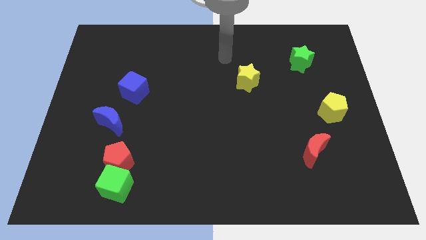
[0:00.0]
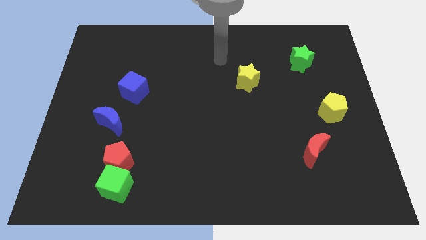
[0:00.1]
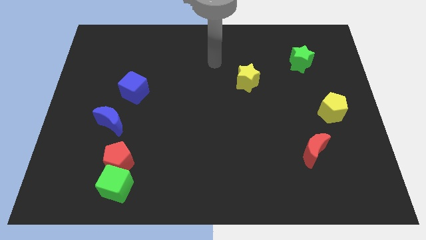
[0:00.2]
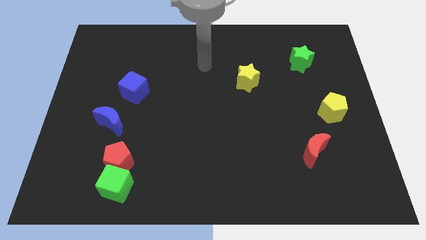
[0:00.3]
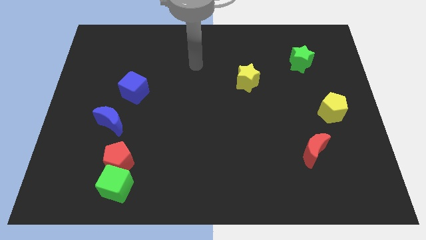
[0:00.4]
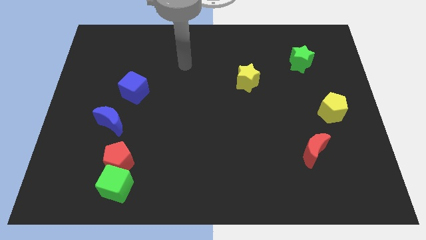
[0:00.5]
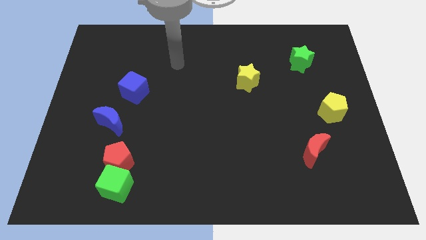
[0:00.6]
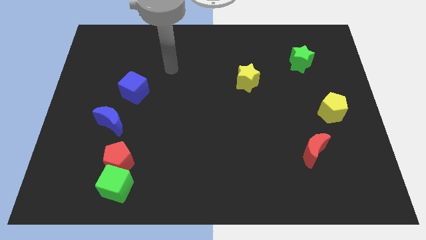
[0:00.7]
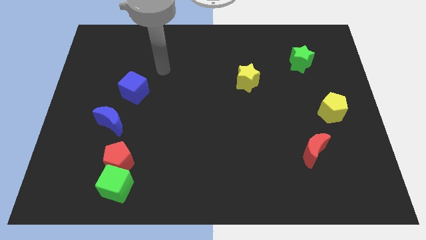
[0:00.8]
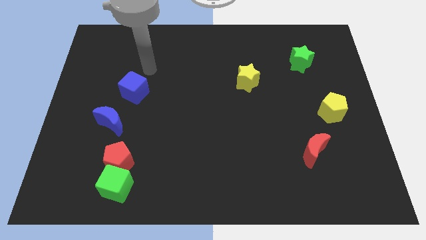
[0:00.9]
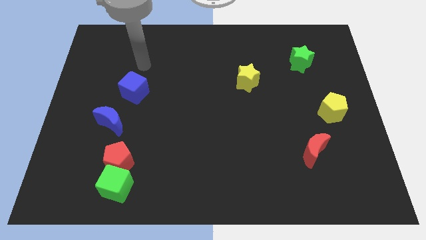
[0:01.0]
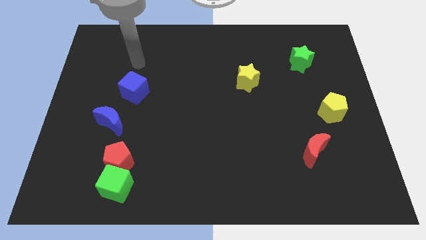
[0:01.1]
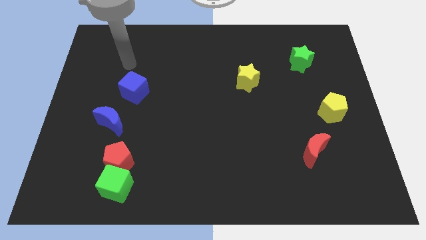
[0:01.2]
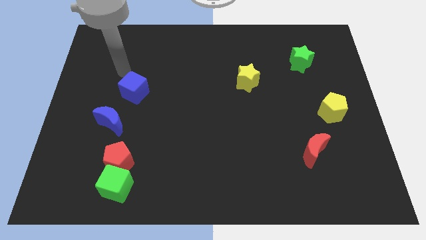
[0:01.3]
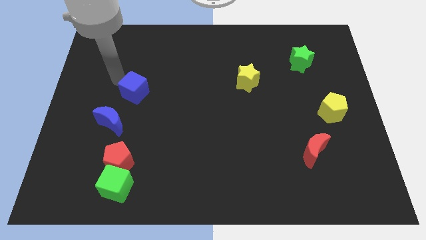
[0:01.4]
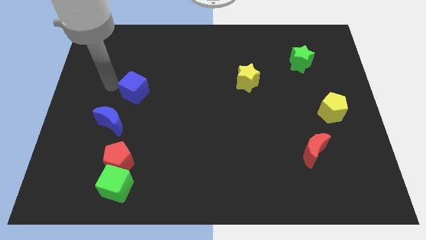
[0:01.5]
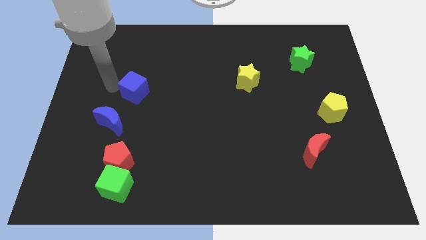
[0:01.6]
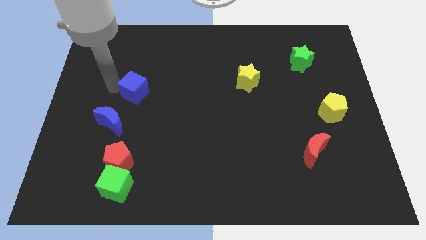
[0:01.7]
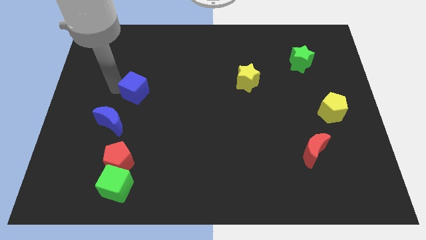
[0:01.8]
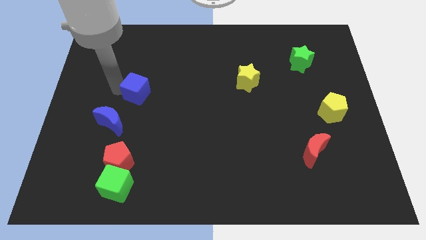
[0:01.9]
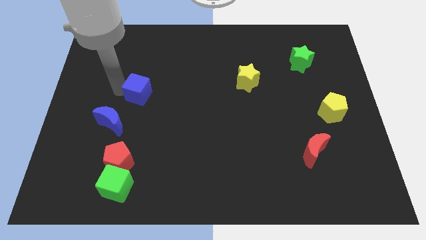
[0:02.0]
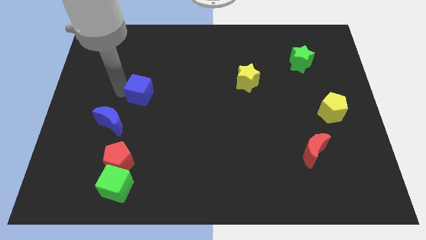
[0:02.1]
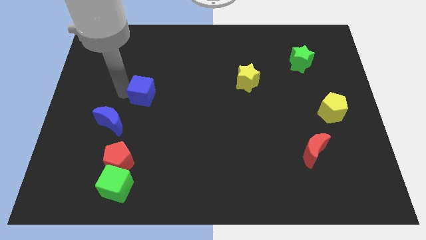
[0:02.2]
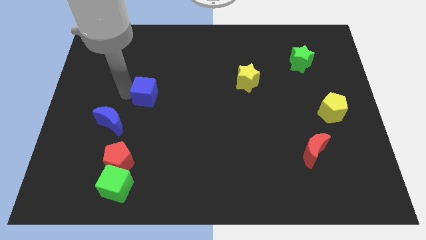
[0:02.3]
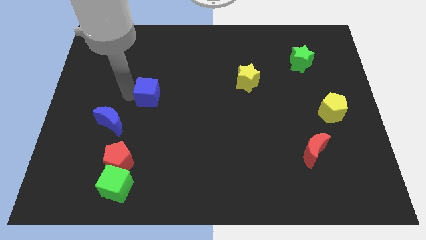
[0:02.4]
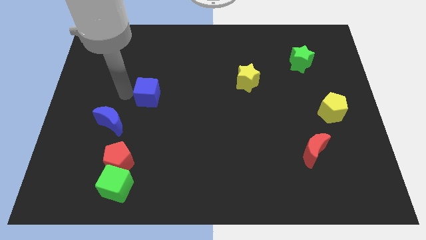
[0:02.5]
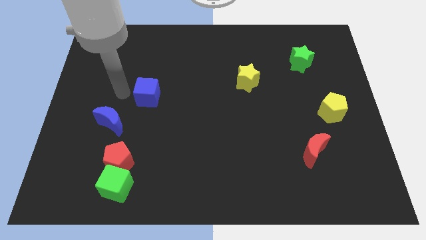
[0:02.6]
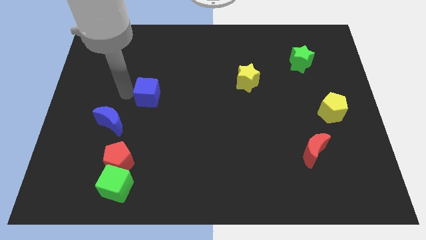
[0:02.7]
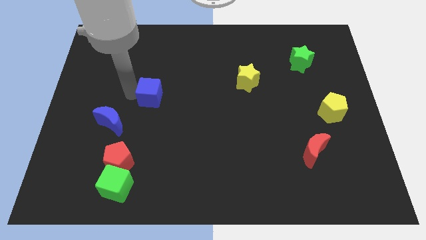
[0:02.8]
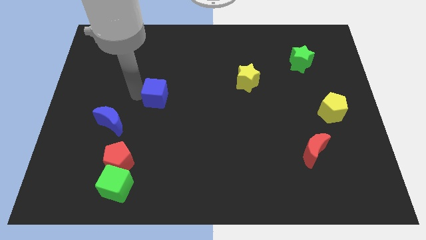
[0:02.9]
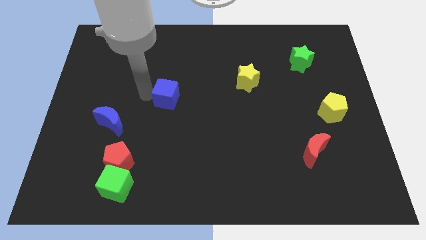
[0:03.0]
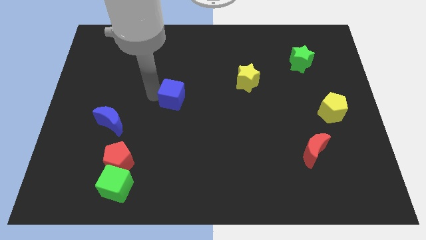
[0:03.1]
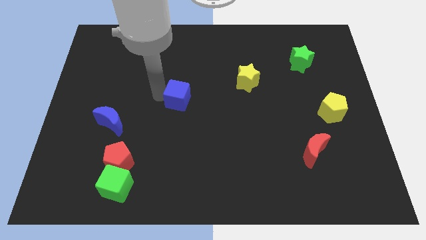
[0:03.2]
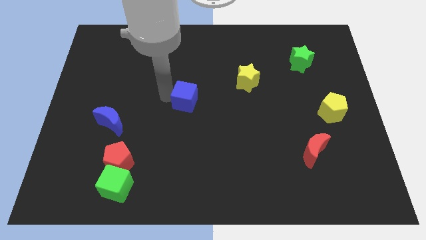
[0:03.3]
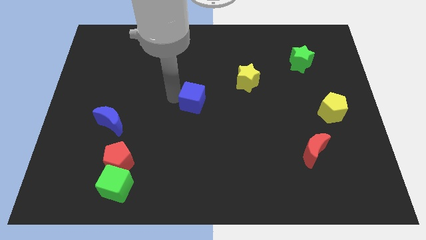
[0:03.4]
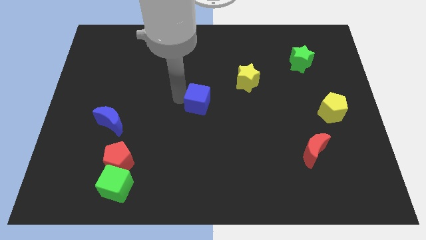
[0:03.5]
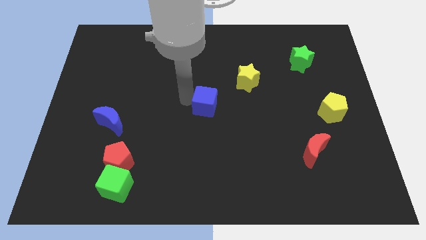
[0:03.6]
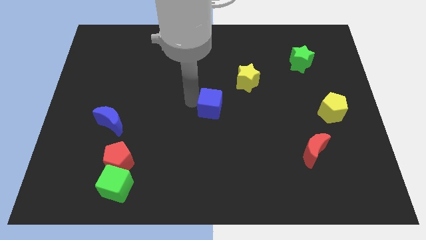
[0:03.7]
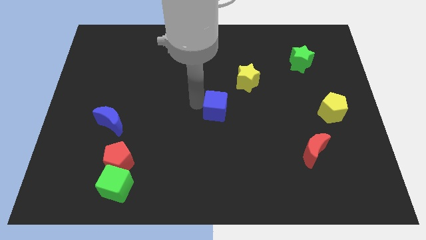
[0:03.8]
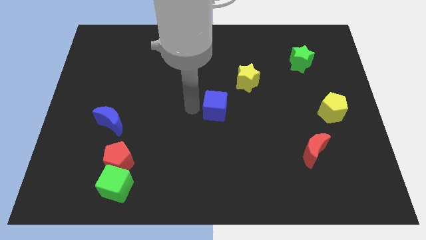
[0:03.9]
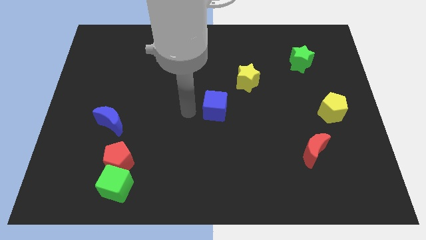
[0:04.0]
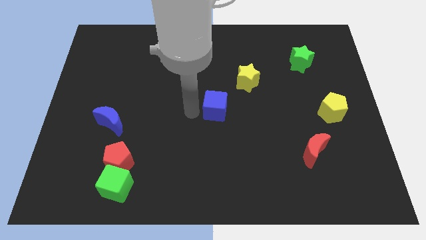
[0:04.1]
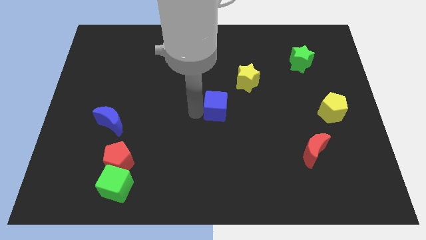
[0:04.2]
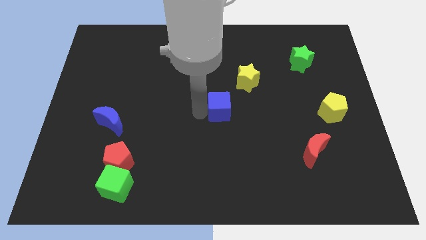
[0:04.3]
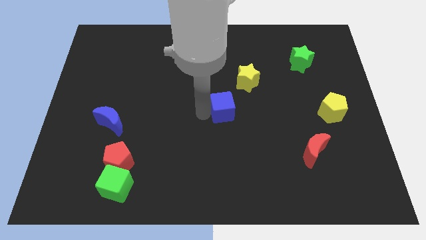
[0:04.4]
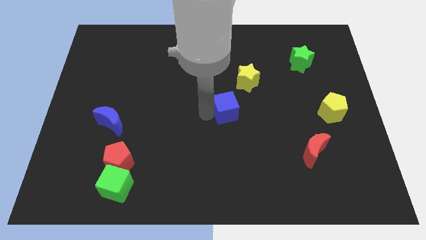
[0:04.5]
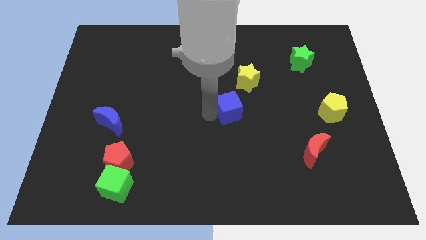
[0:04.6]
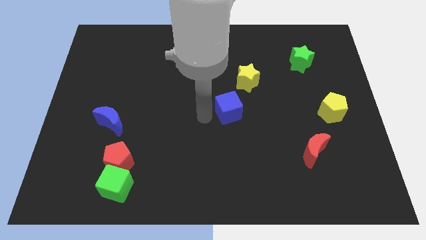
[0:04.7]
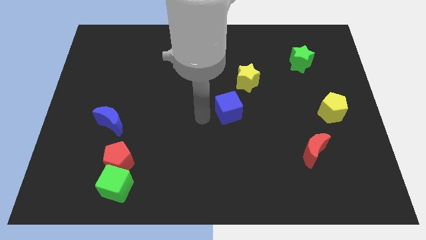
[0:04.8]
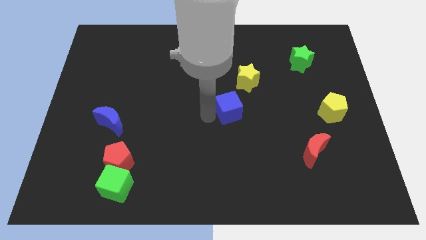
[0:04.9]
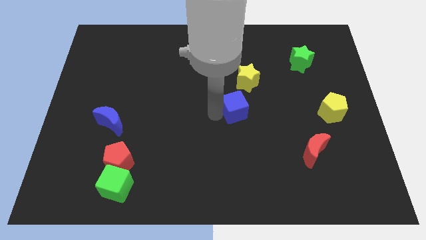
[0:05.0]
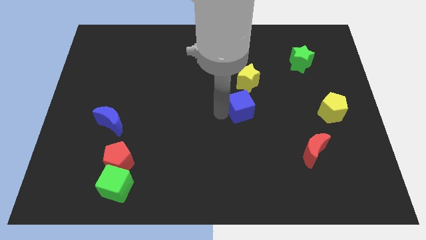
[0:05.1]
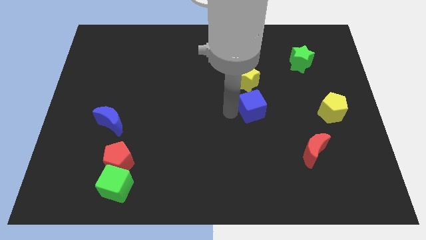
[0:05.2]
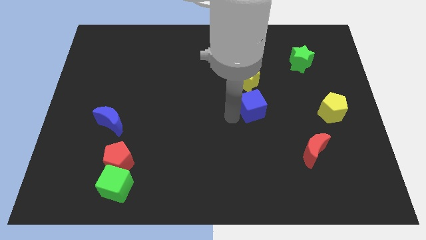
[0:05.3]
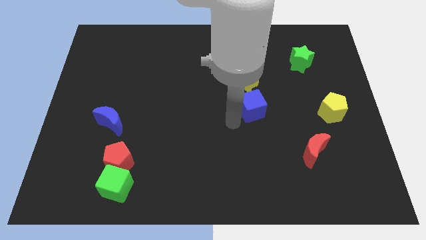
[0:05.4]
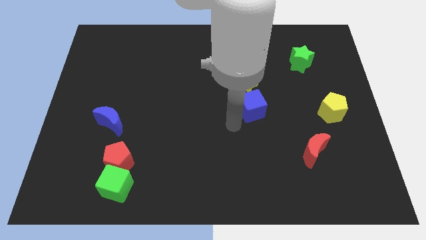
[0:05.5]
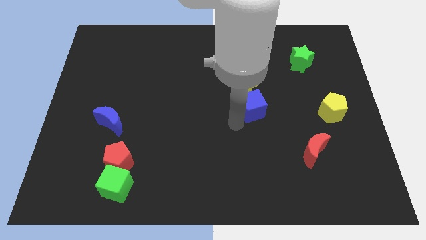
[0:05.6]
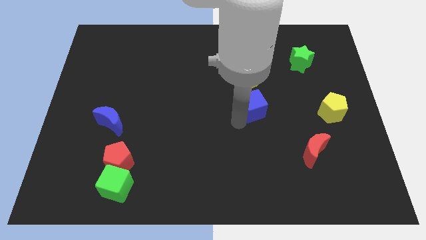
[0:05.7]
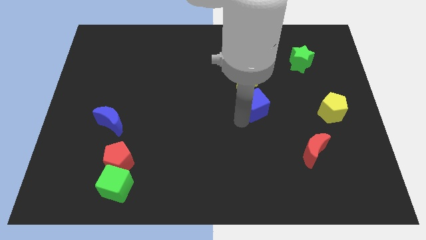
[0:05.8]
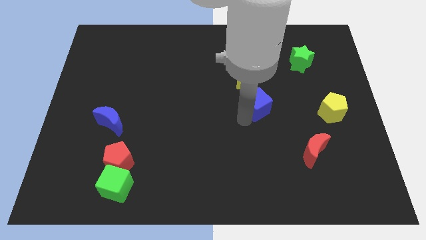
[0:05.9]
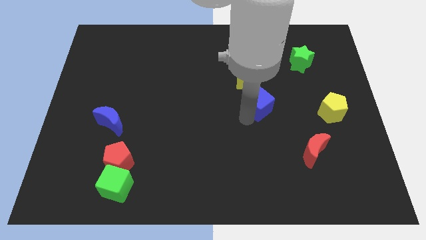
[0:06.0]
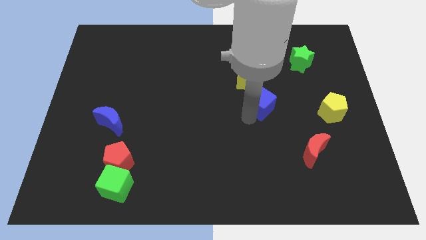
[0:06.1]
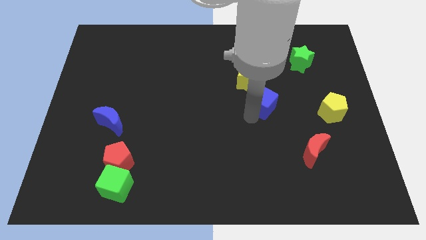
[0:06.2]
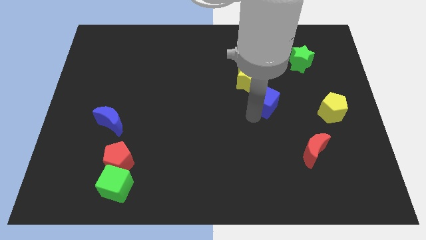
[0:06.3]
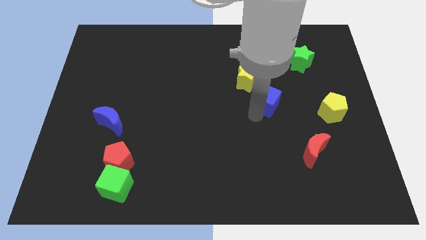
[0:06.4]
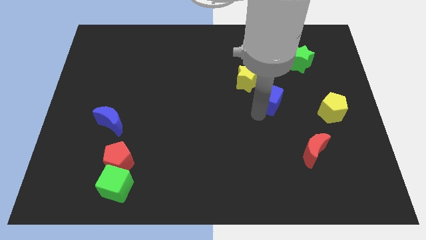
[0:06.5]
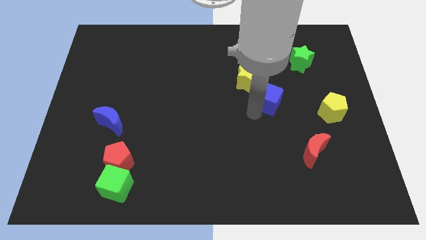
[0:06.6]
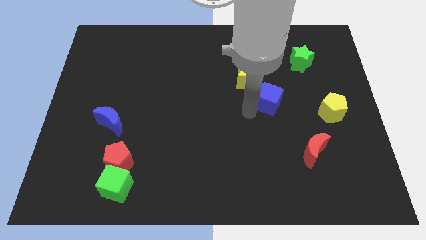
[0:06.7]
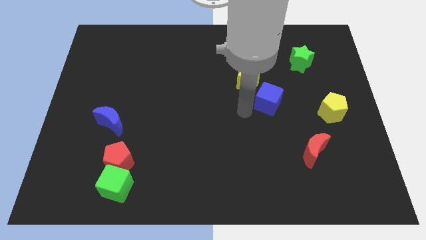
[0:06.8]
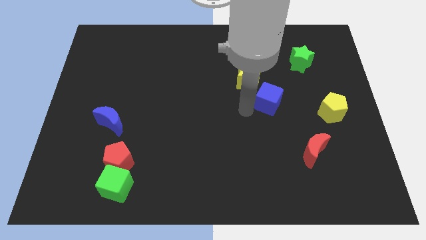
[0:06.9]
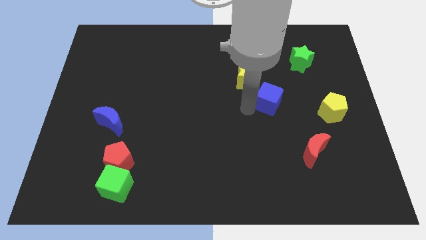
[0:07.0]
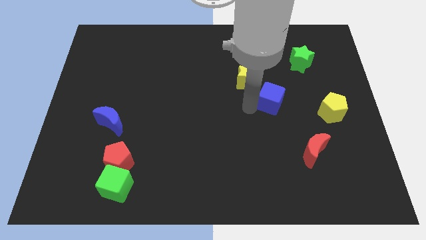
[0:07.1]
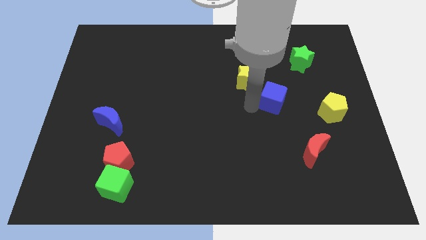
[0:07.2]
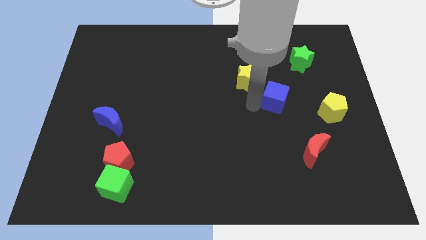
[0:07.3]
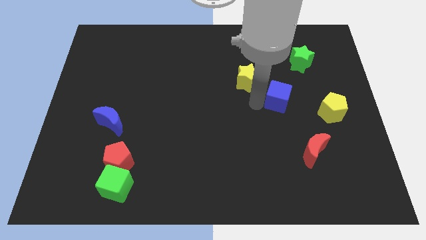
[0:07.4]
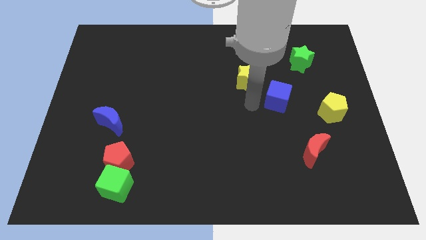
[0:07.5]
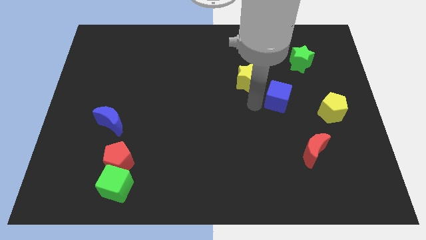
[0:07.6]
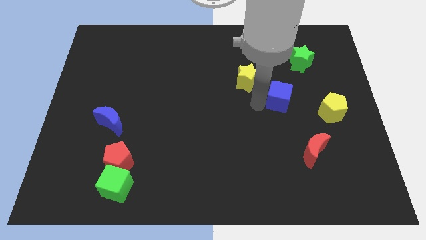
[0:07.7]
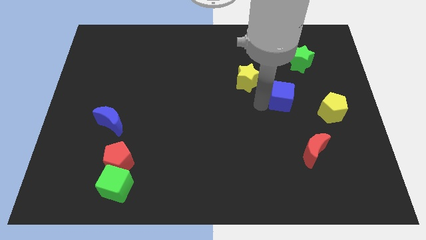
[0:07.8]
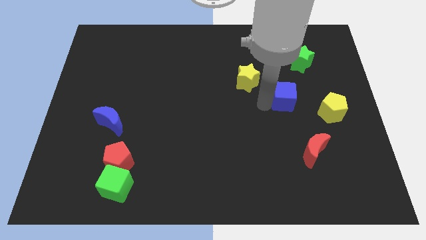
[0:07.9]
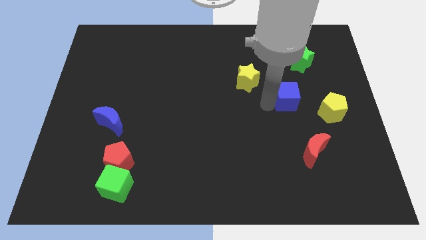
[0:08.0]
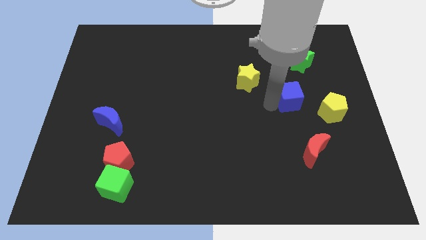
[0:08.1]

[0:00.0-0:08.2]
put the blue cube diagonally up and to the left of the yellow pentagon
